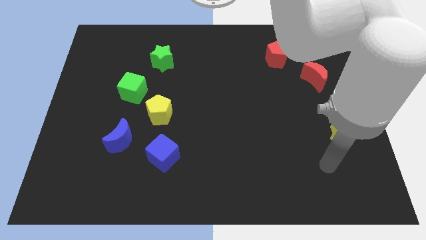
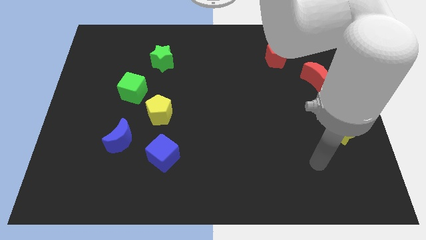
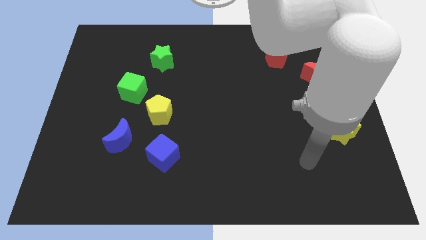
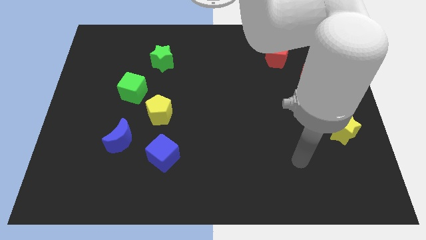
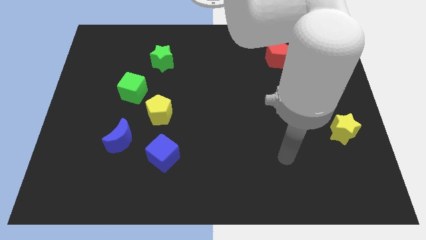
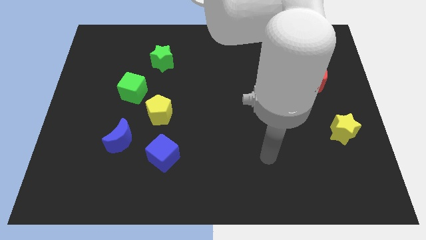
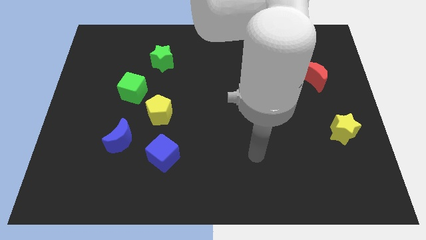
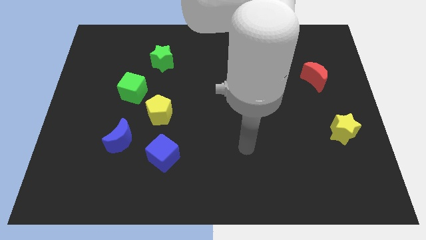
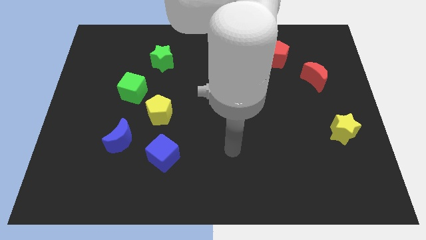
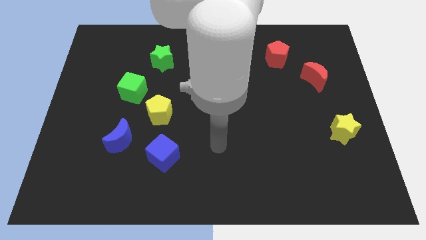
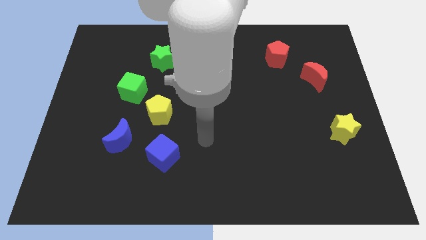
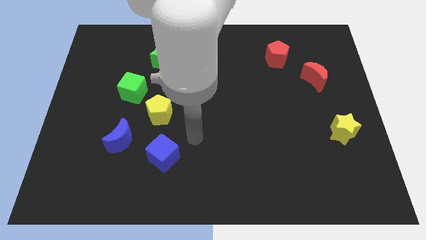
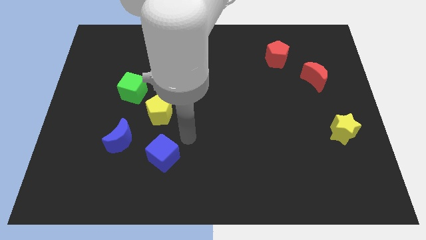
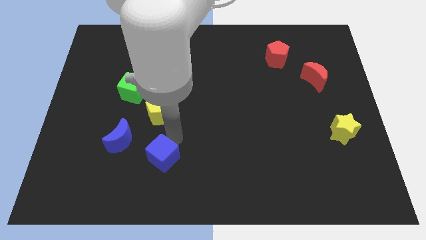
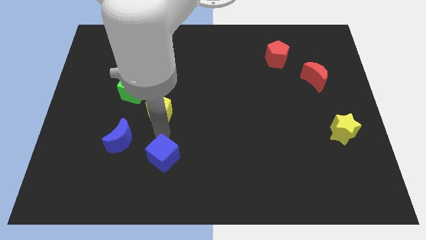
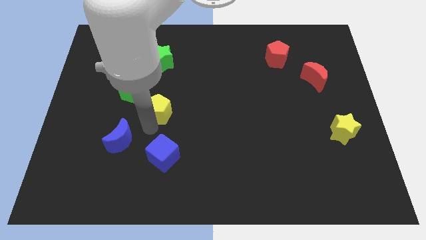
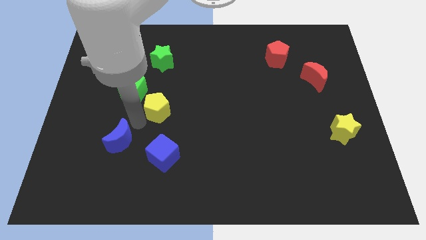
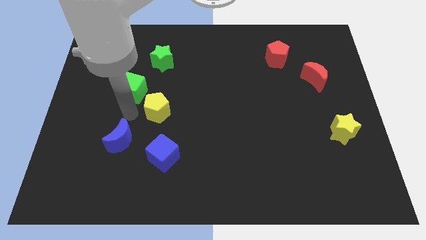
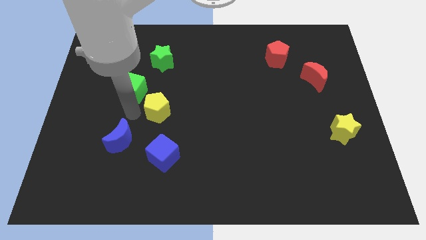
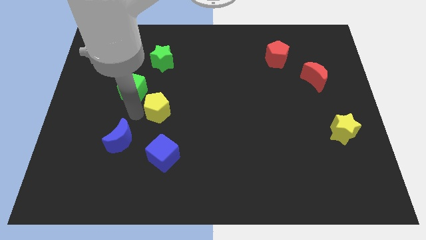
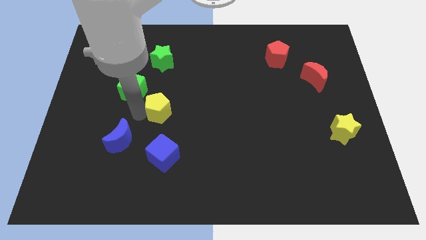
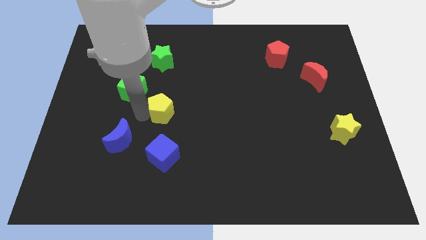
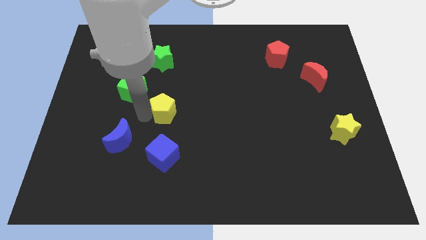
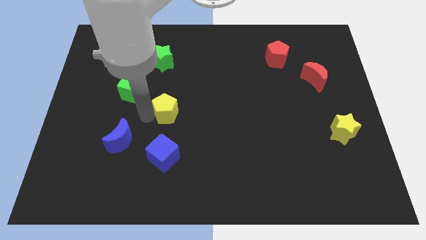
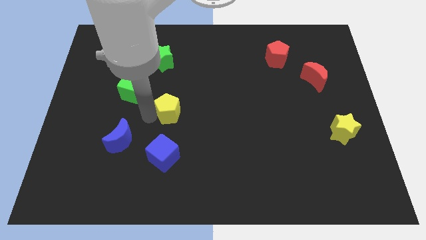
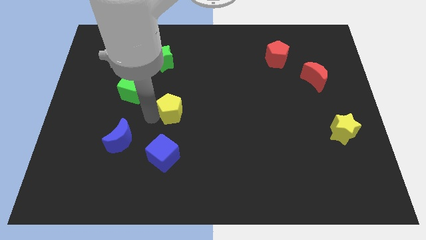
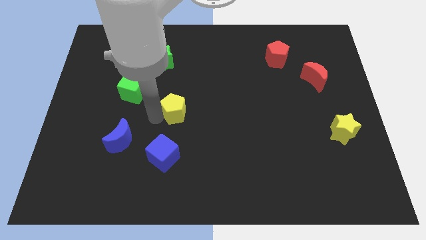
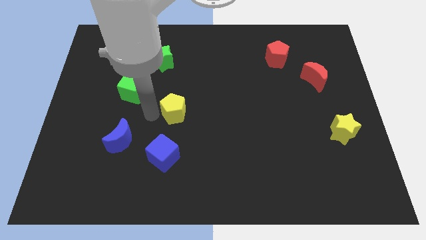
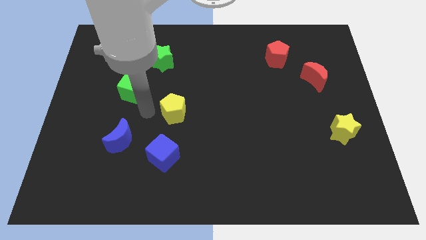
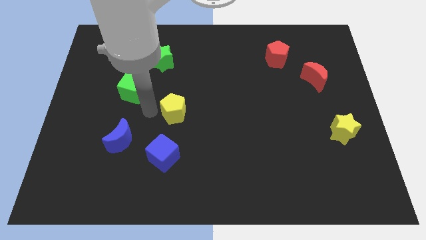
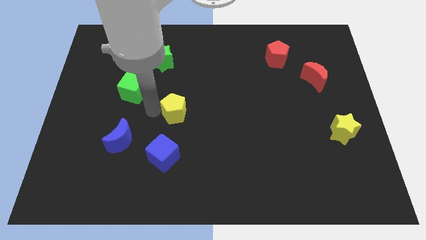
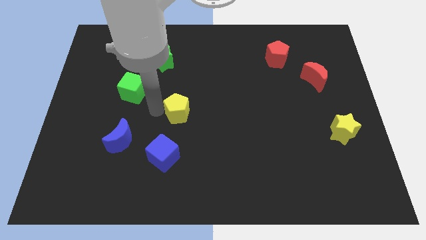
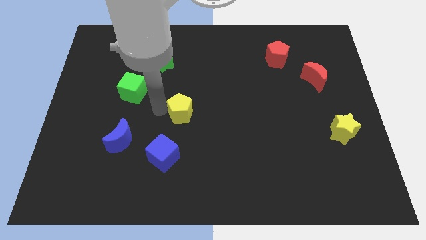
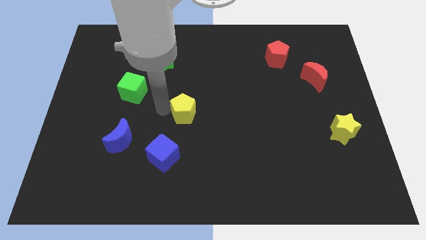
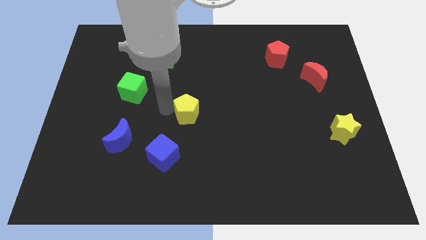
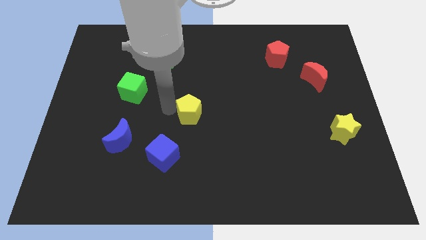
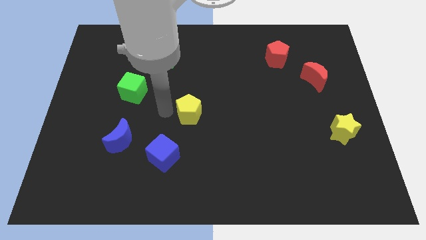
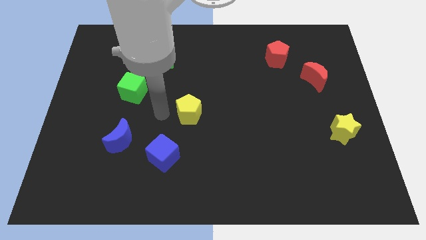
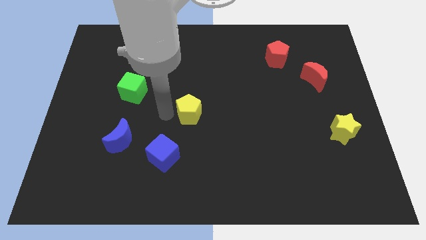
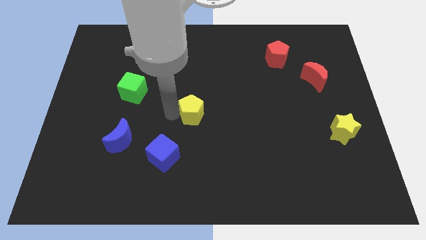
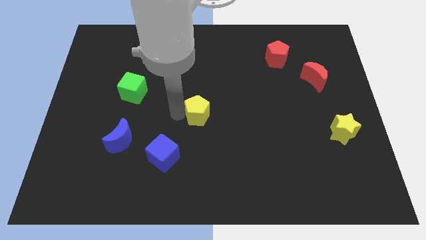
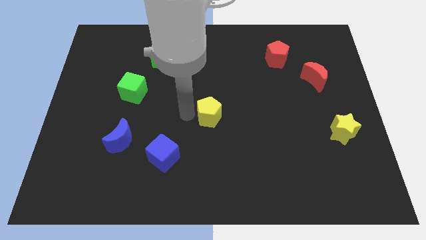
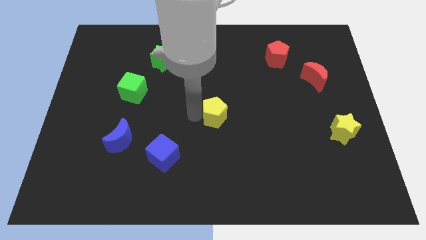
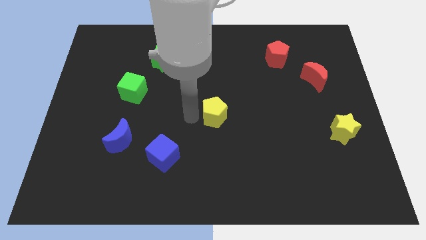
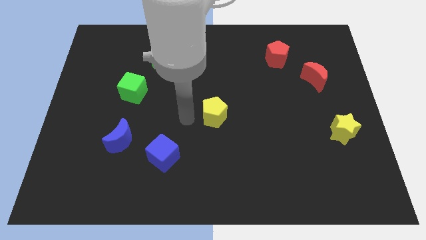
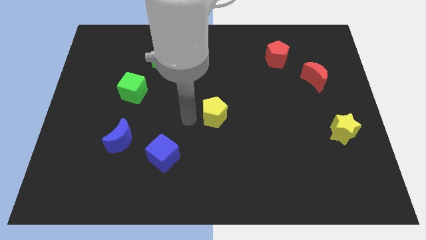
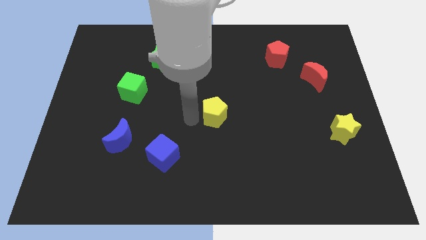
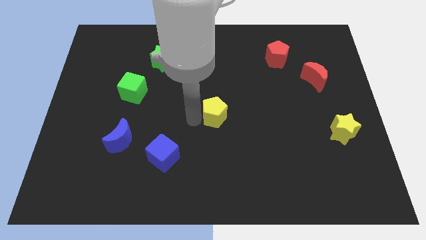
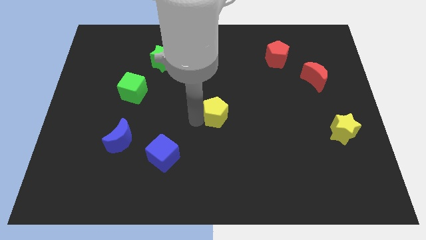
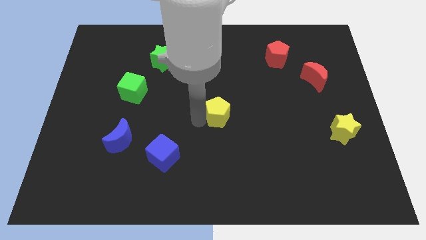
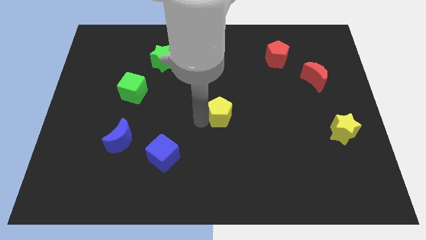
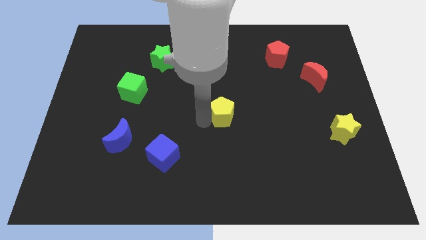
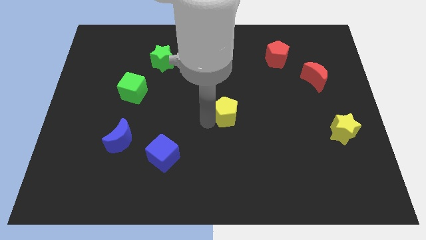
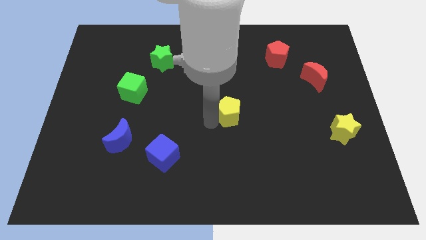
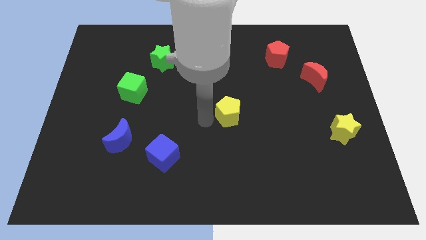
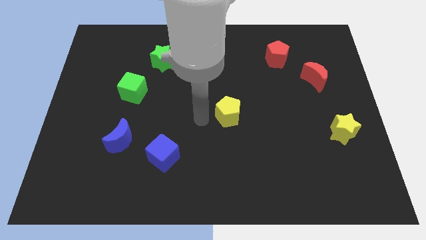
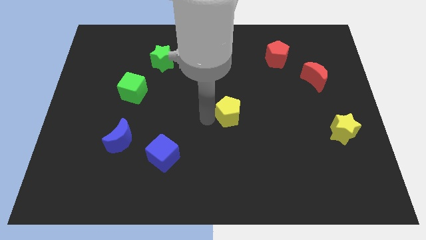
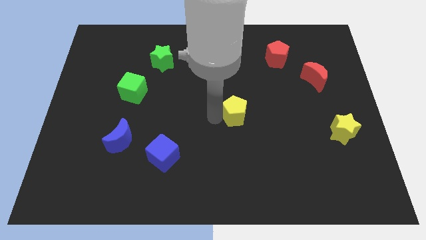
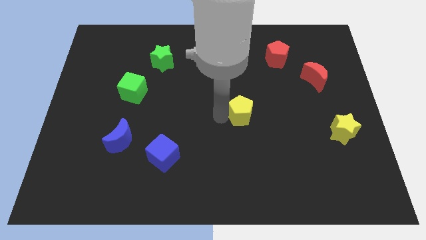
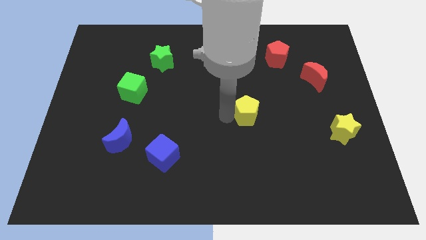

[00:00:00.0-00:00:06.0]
push the yellow pentagon right

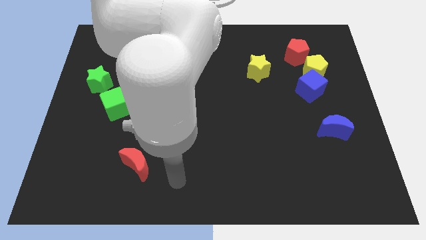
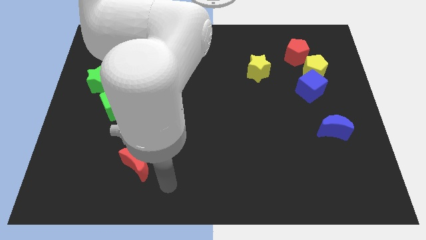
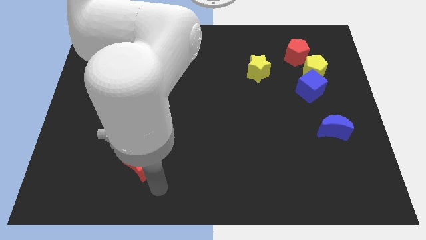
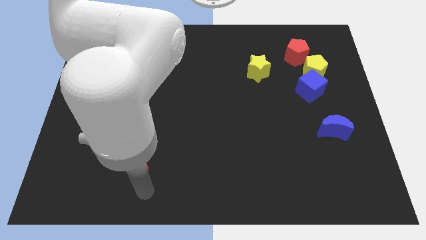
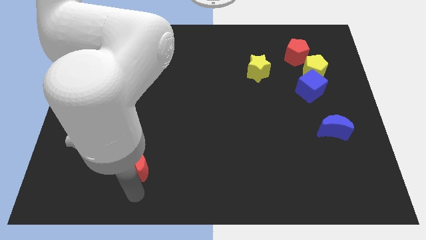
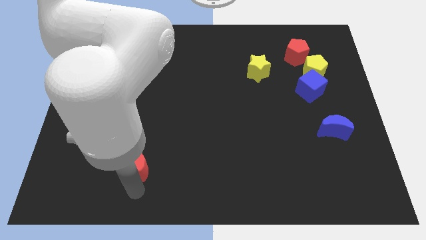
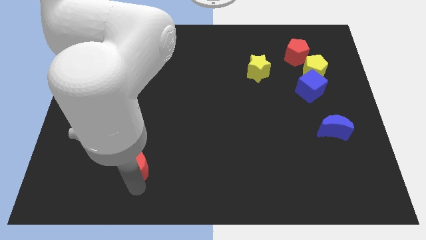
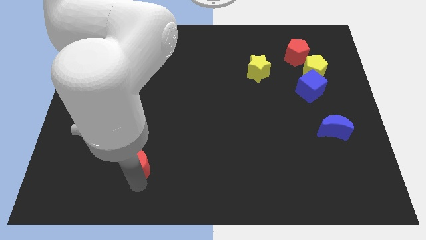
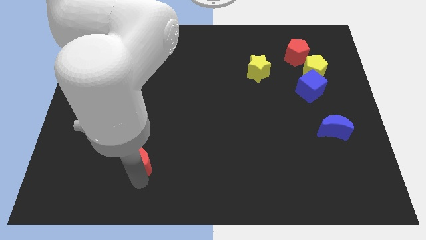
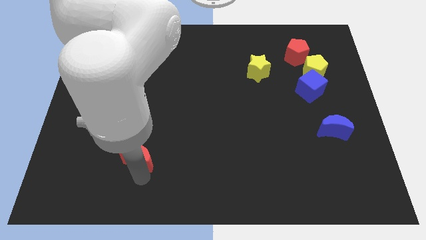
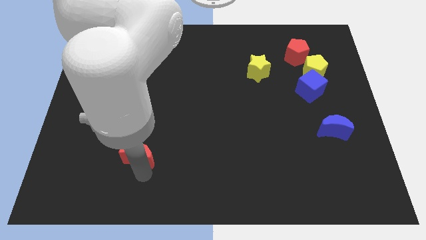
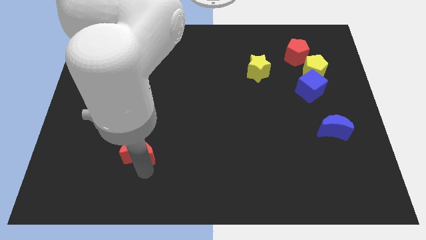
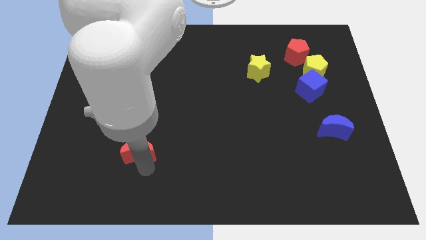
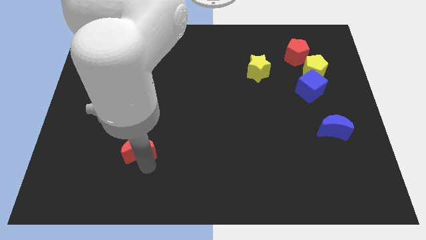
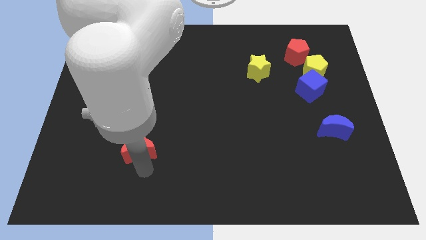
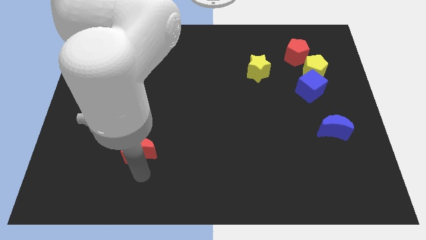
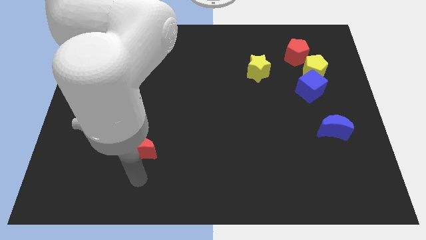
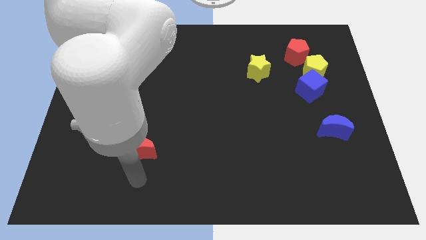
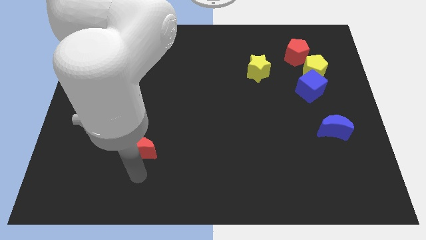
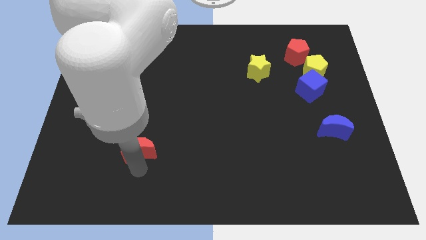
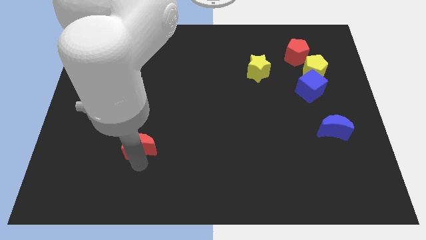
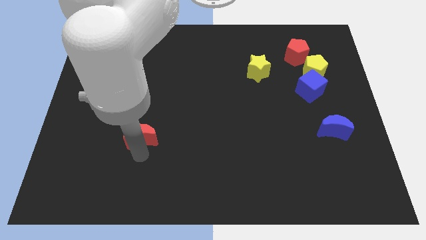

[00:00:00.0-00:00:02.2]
push the red moon somewhat upwards

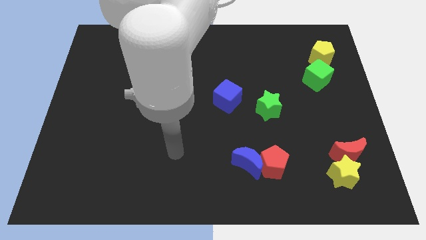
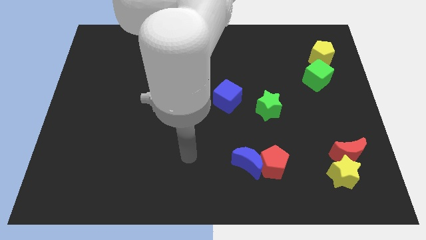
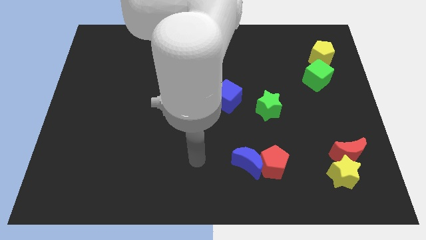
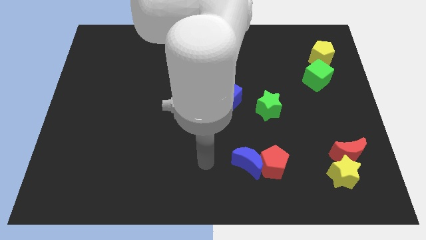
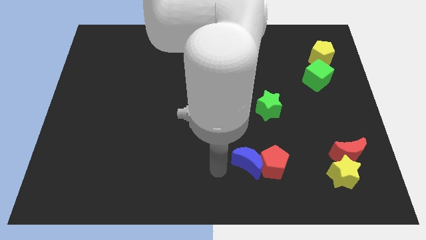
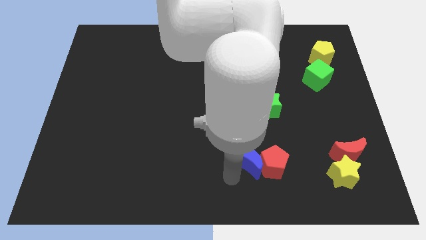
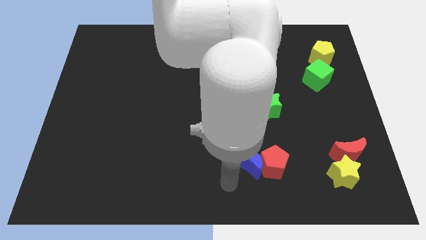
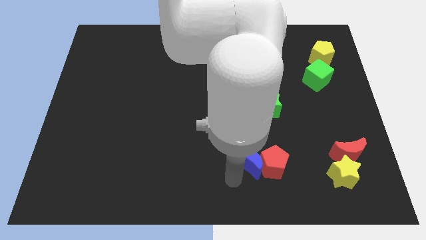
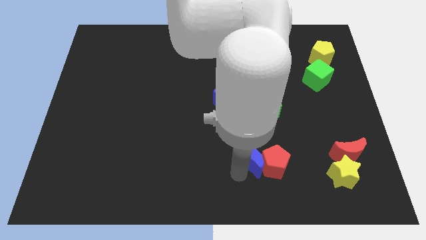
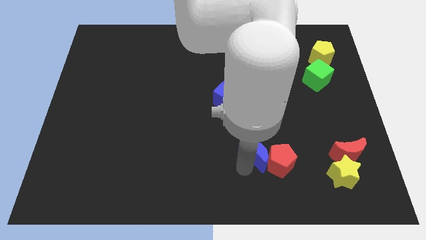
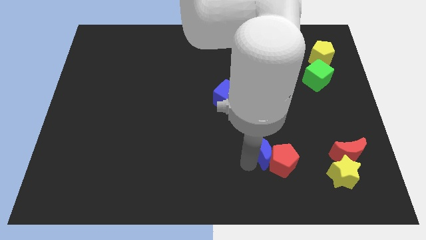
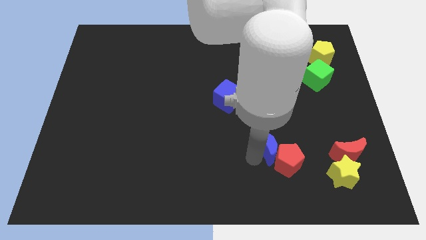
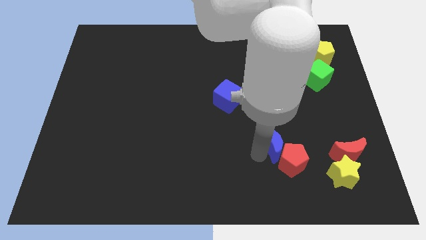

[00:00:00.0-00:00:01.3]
slightly push the blue moon diagonally upwards and right
